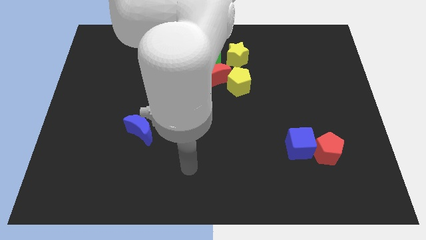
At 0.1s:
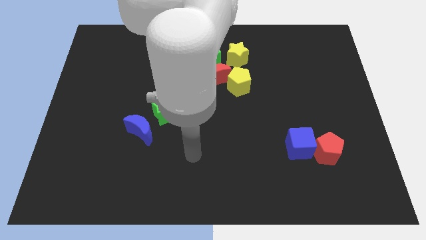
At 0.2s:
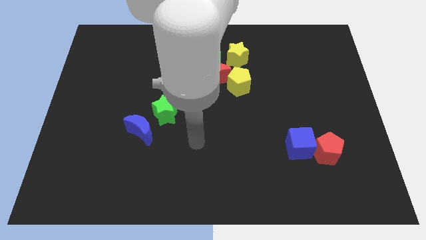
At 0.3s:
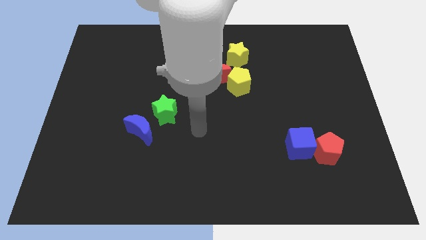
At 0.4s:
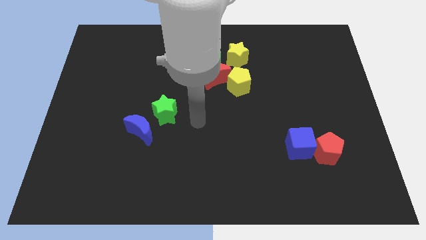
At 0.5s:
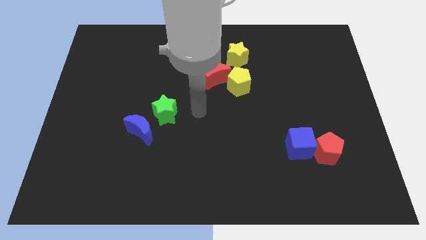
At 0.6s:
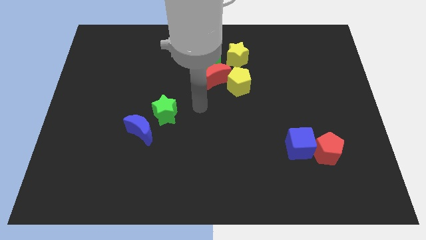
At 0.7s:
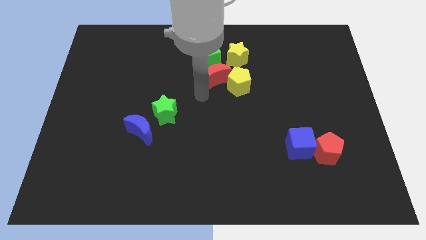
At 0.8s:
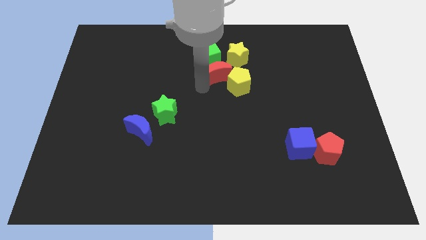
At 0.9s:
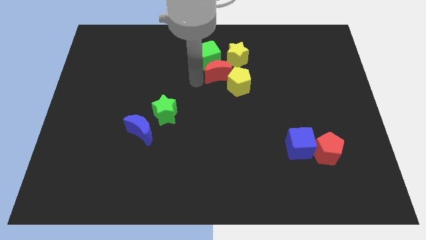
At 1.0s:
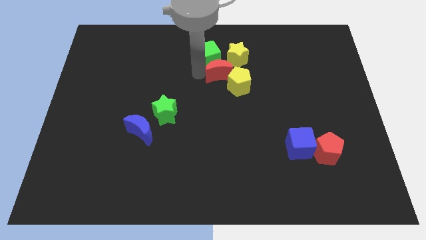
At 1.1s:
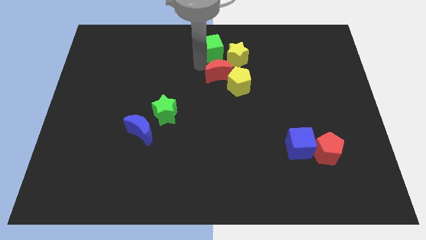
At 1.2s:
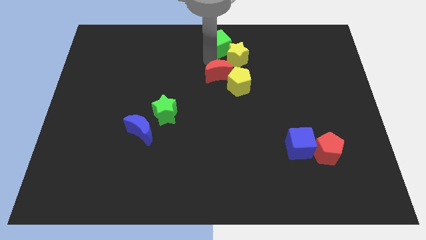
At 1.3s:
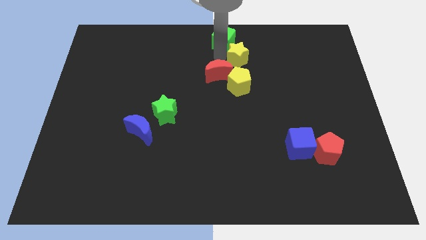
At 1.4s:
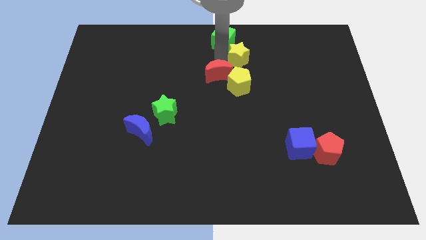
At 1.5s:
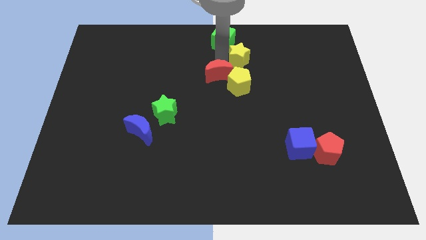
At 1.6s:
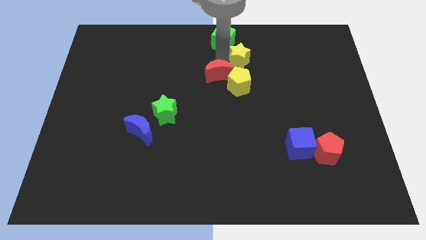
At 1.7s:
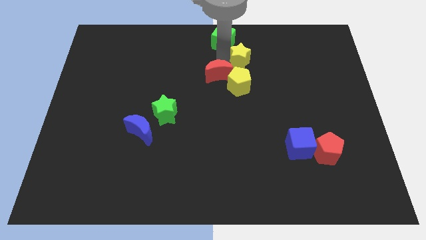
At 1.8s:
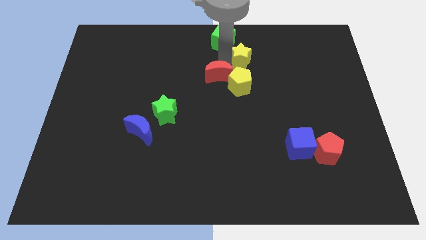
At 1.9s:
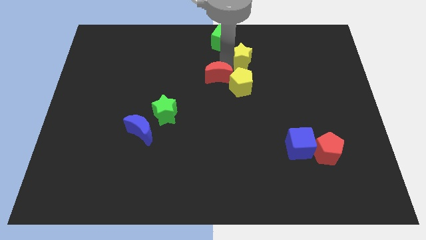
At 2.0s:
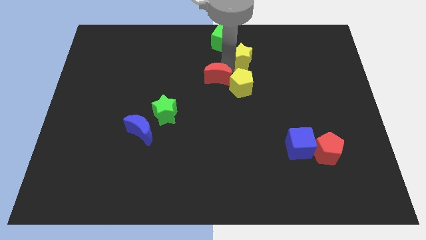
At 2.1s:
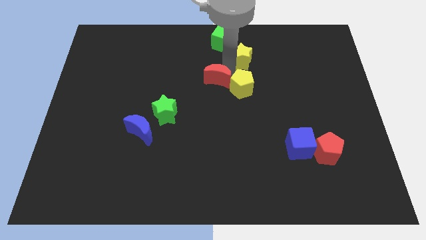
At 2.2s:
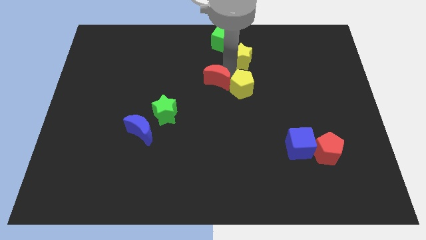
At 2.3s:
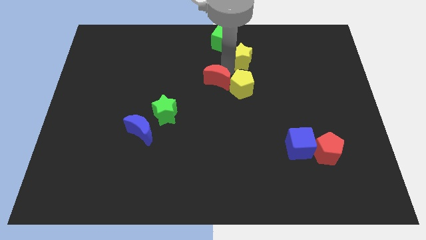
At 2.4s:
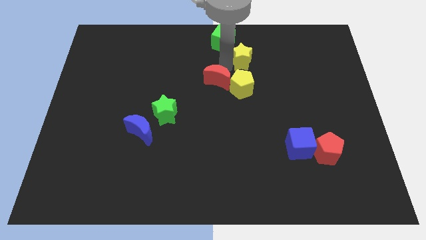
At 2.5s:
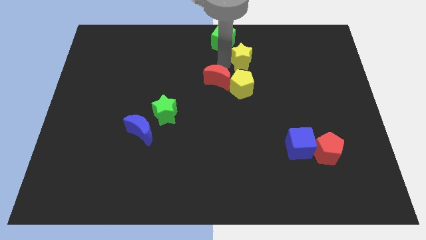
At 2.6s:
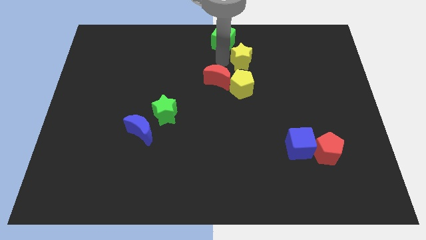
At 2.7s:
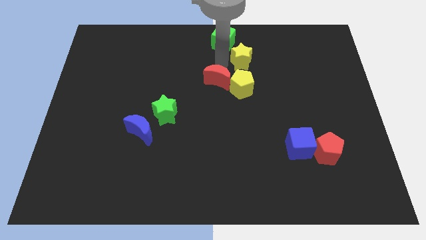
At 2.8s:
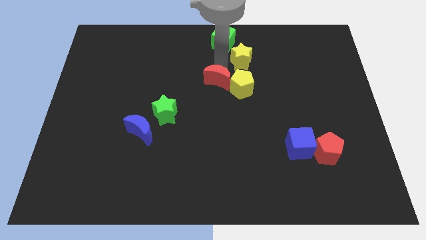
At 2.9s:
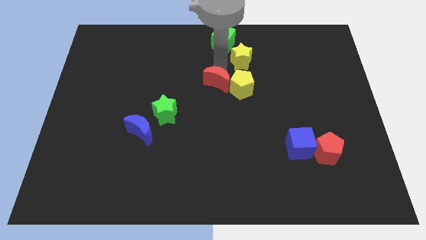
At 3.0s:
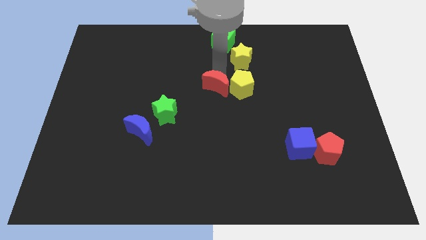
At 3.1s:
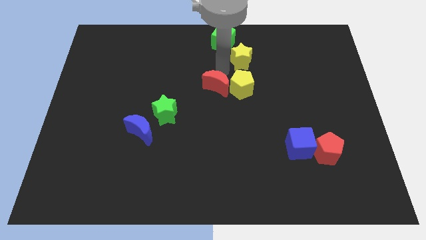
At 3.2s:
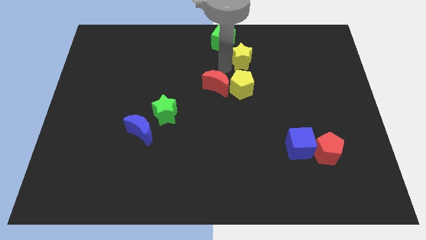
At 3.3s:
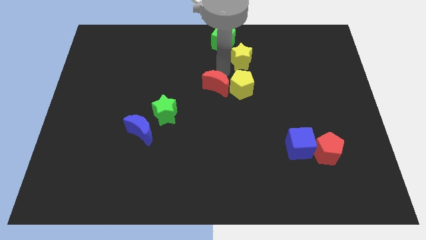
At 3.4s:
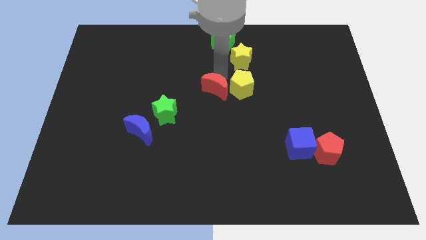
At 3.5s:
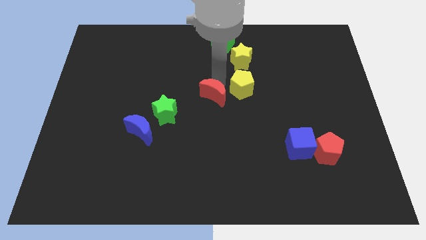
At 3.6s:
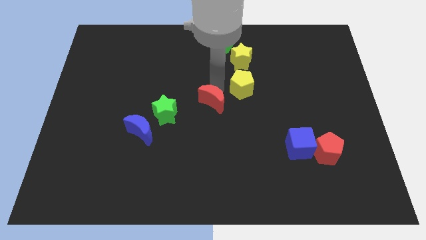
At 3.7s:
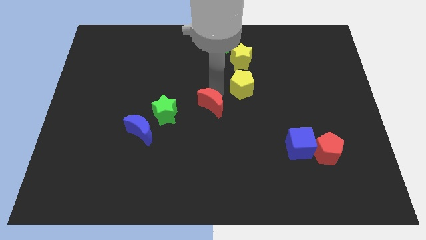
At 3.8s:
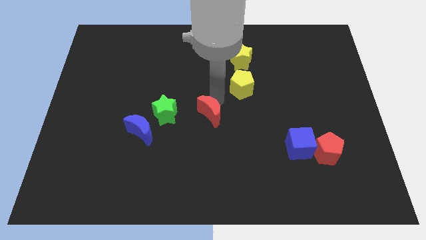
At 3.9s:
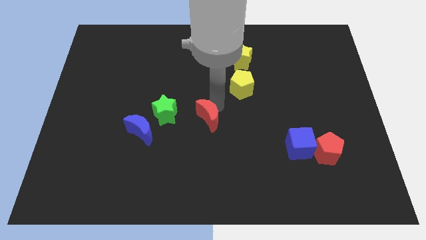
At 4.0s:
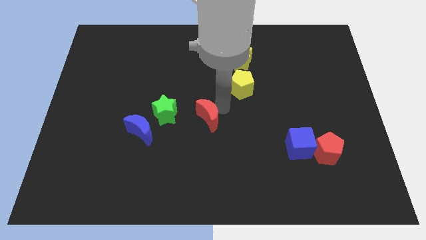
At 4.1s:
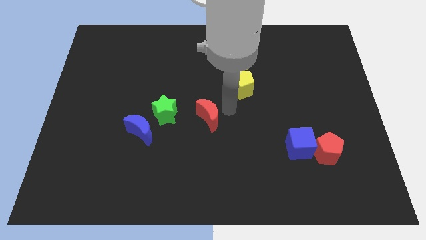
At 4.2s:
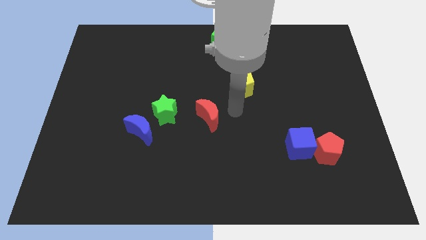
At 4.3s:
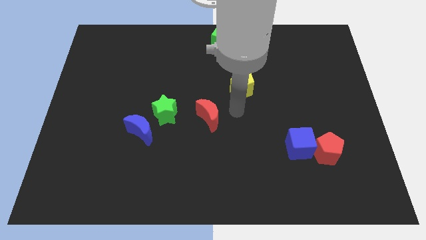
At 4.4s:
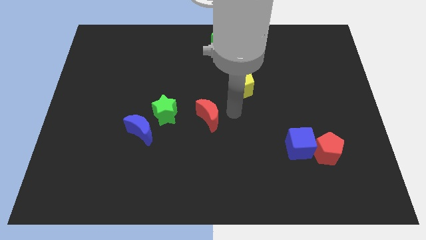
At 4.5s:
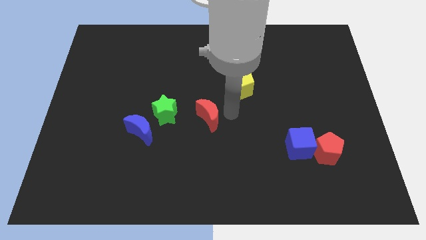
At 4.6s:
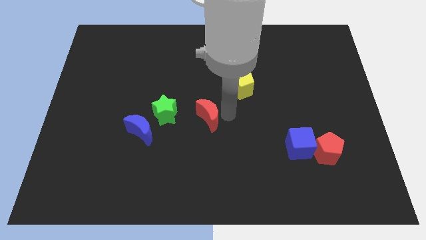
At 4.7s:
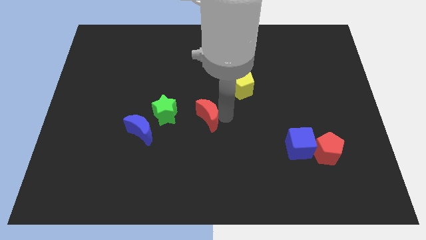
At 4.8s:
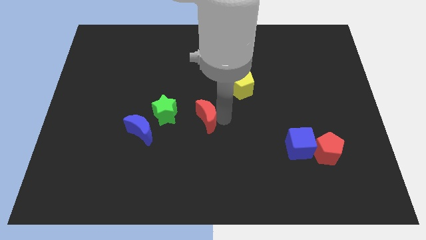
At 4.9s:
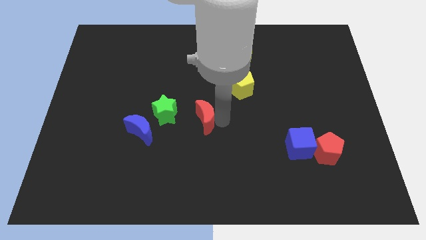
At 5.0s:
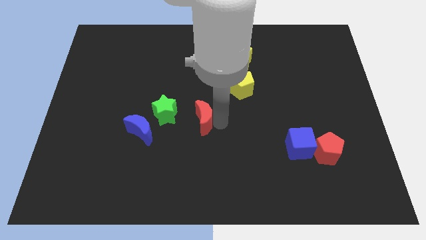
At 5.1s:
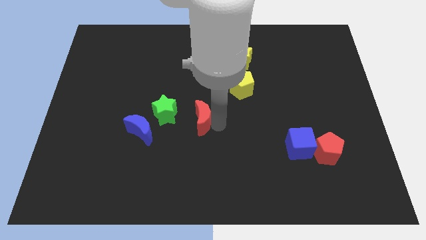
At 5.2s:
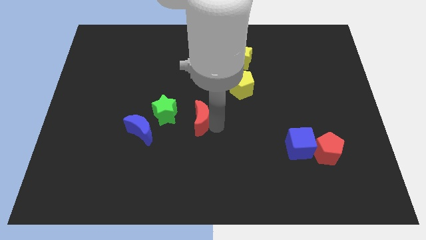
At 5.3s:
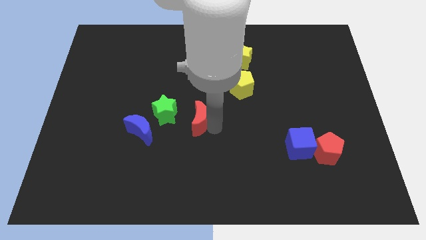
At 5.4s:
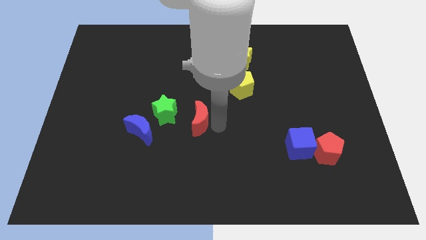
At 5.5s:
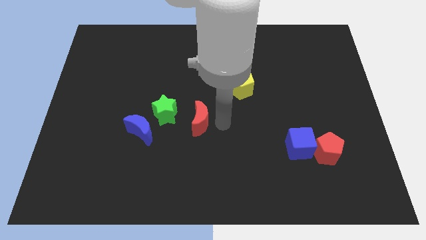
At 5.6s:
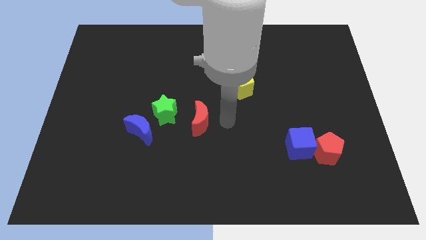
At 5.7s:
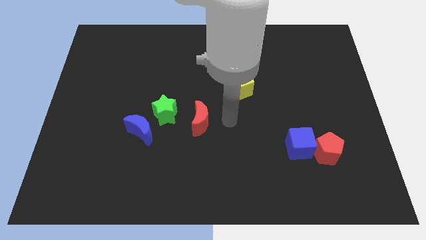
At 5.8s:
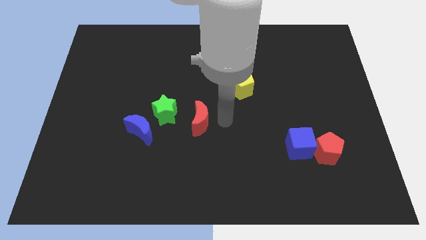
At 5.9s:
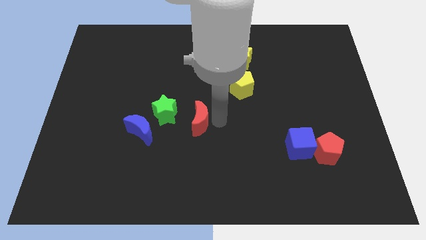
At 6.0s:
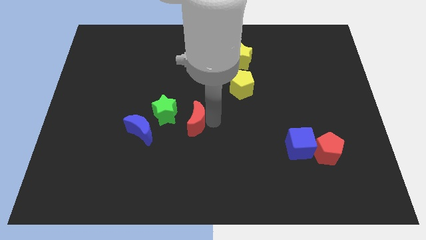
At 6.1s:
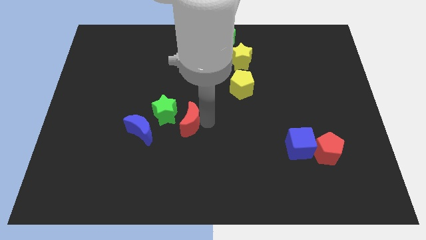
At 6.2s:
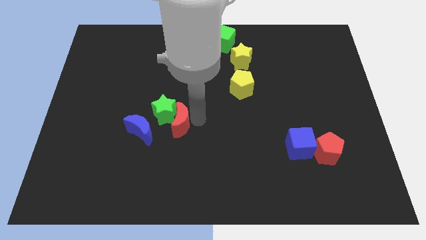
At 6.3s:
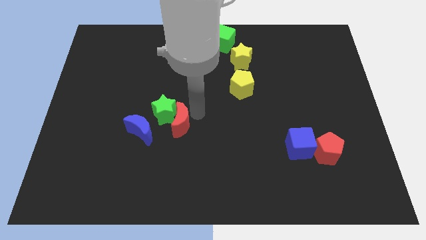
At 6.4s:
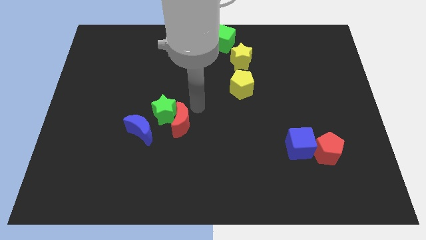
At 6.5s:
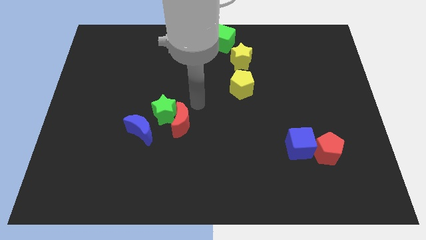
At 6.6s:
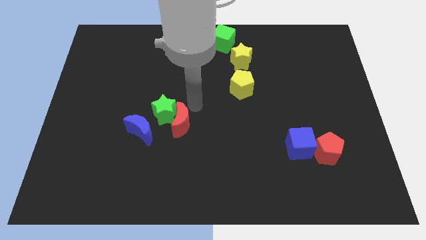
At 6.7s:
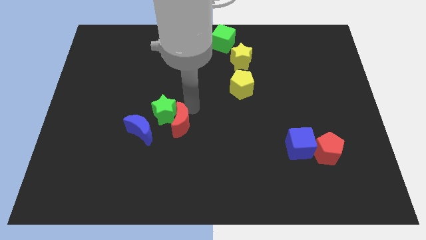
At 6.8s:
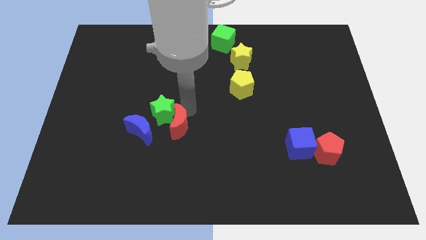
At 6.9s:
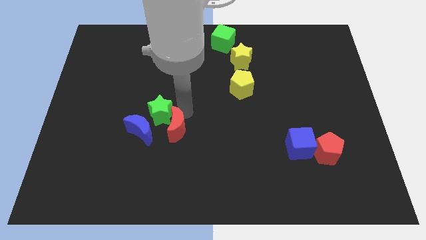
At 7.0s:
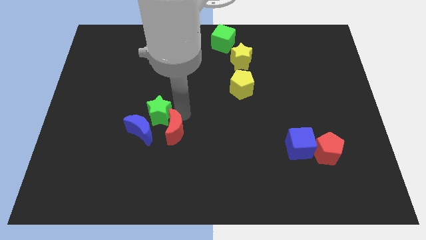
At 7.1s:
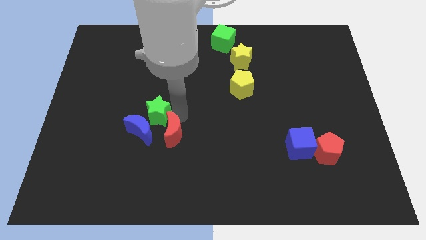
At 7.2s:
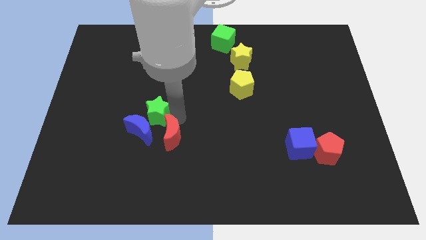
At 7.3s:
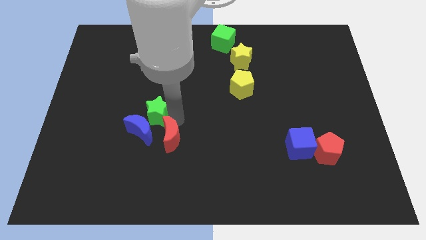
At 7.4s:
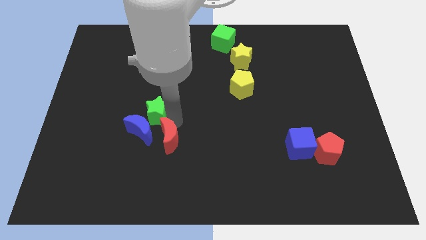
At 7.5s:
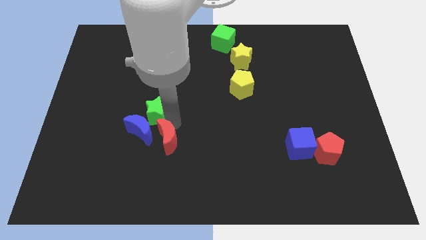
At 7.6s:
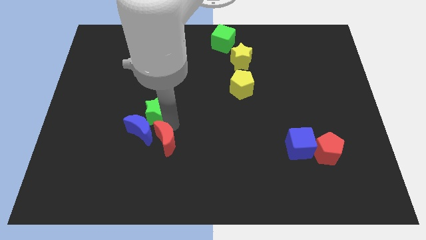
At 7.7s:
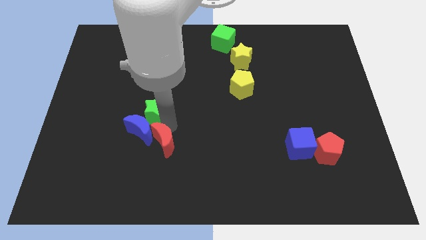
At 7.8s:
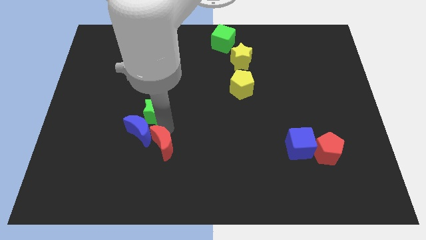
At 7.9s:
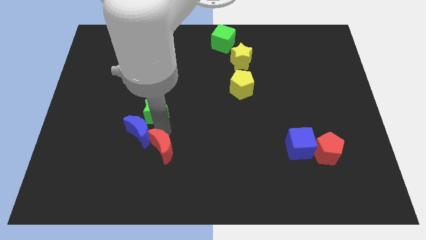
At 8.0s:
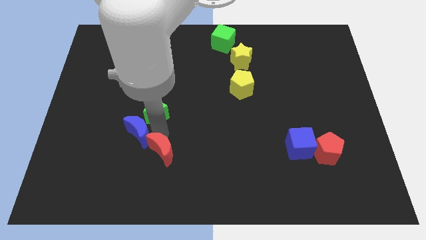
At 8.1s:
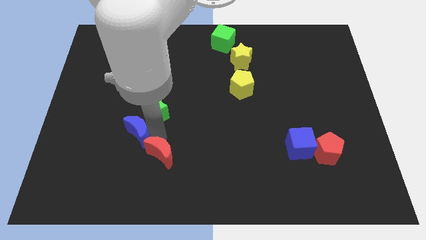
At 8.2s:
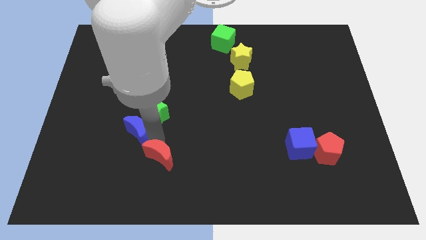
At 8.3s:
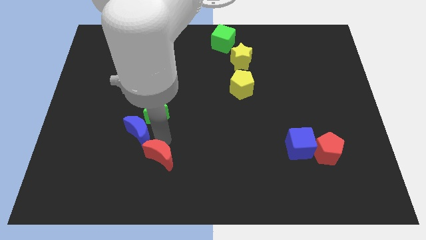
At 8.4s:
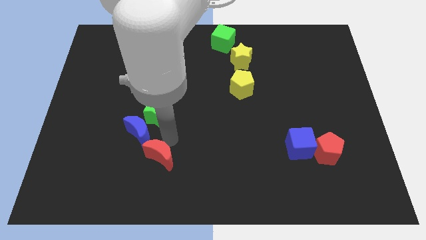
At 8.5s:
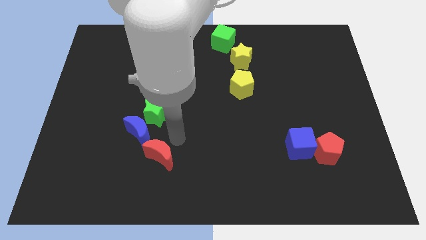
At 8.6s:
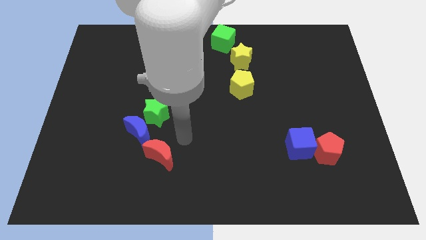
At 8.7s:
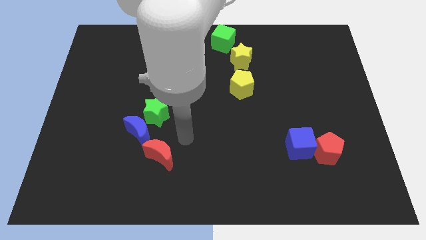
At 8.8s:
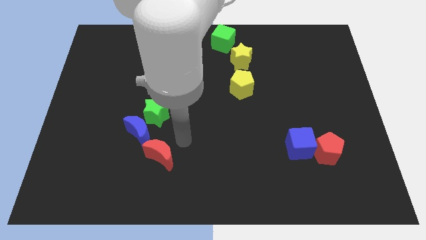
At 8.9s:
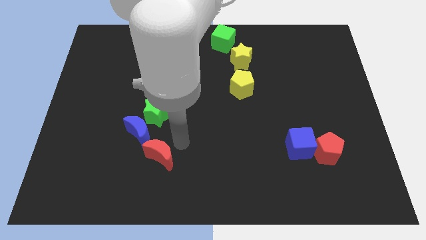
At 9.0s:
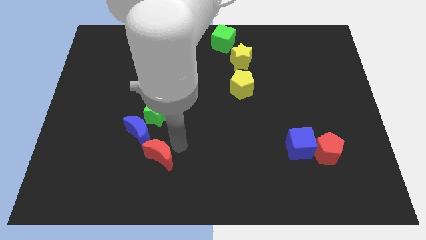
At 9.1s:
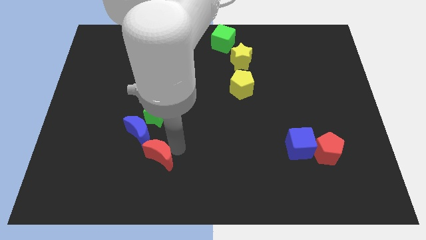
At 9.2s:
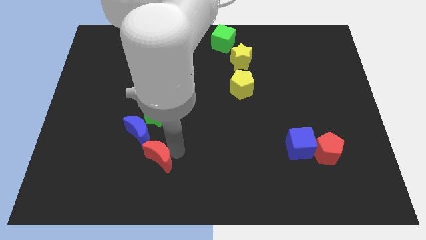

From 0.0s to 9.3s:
put the red moon to the bottom side of the blue moon
